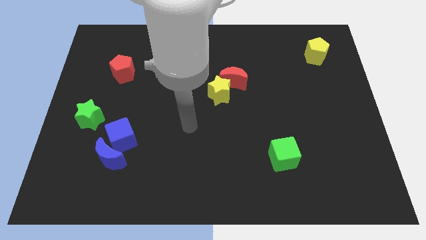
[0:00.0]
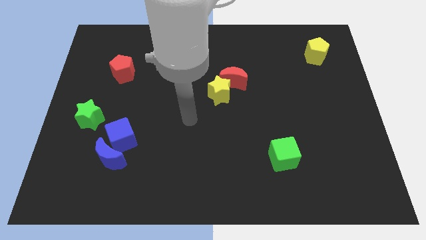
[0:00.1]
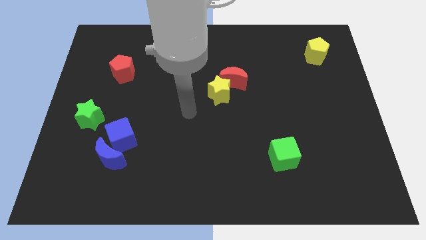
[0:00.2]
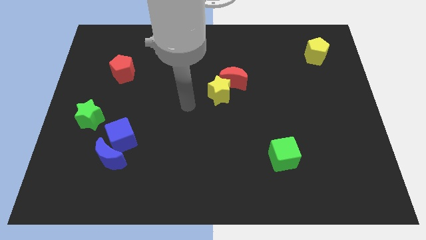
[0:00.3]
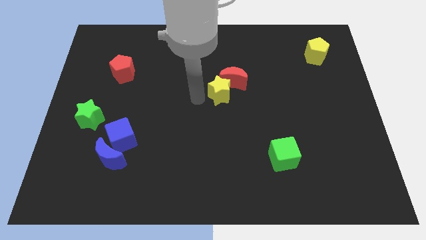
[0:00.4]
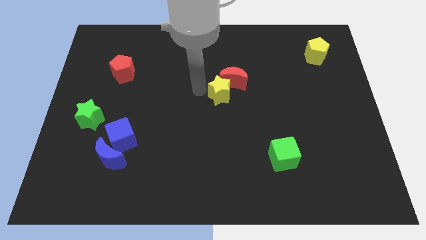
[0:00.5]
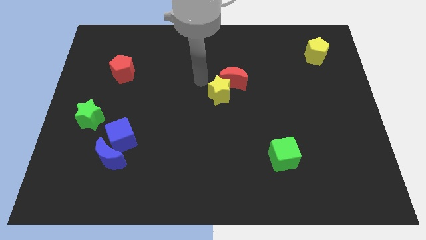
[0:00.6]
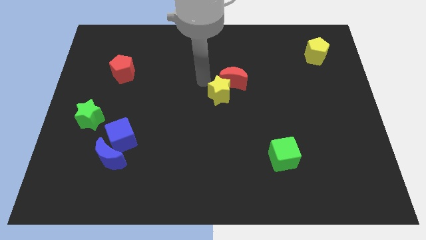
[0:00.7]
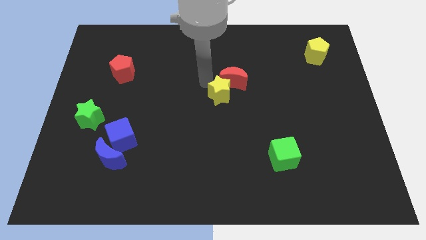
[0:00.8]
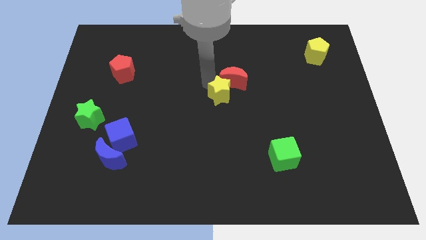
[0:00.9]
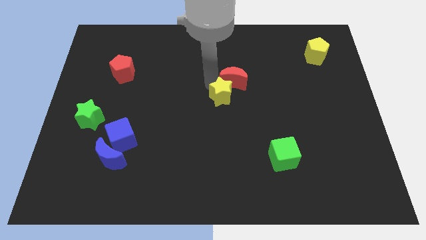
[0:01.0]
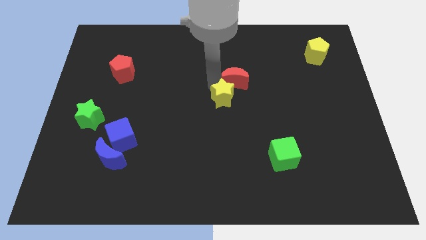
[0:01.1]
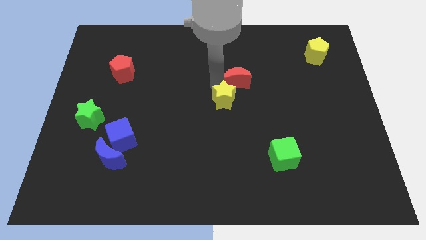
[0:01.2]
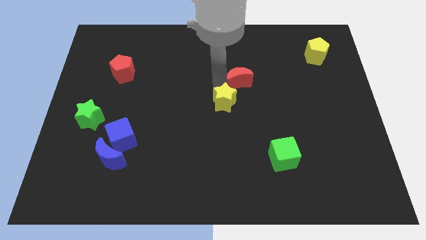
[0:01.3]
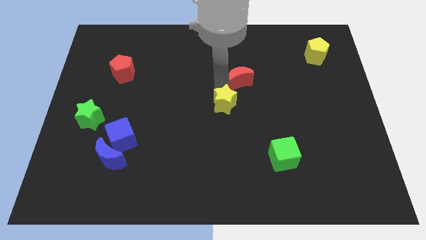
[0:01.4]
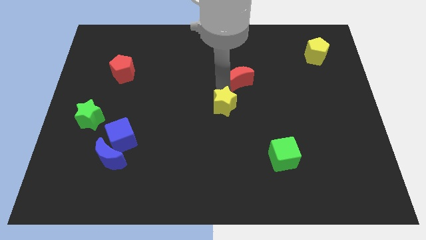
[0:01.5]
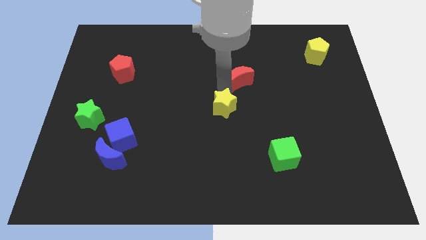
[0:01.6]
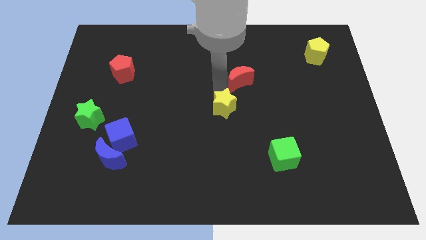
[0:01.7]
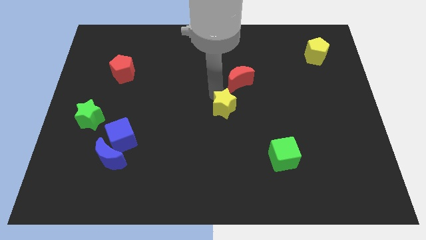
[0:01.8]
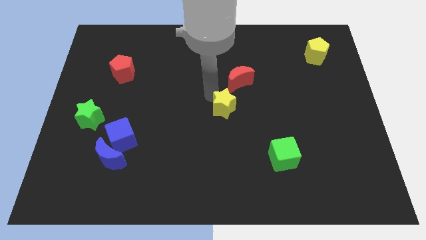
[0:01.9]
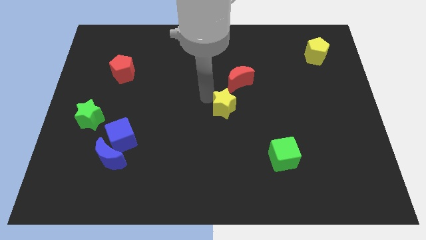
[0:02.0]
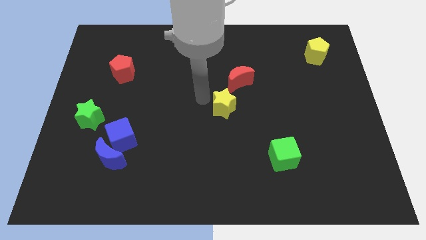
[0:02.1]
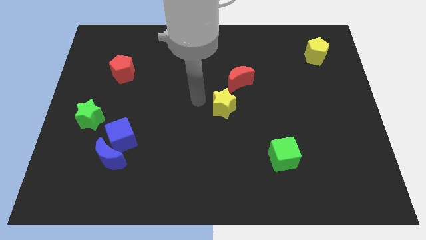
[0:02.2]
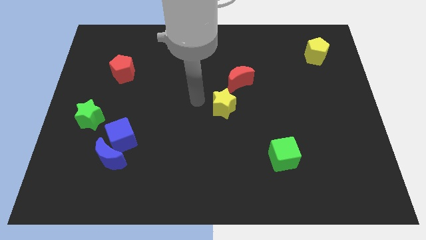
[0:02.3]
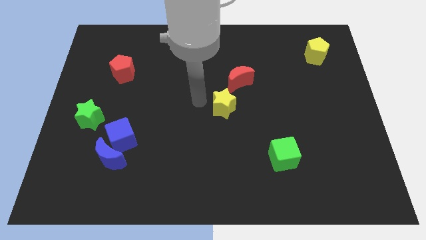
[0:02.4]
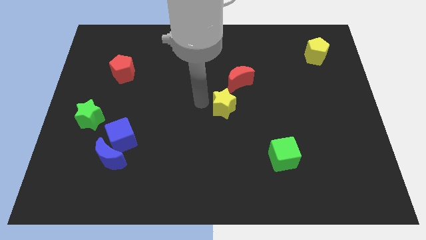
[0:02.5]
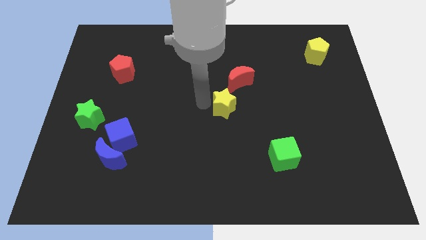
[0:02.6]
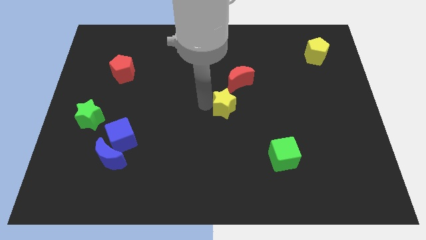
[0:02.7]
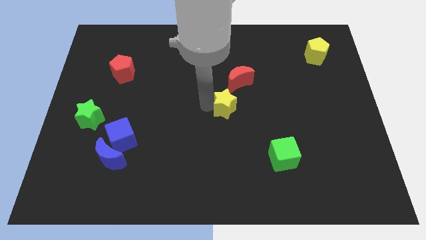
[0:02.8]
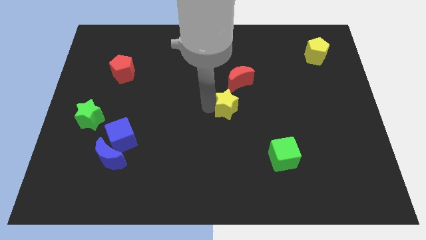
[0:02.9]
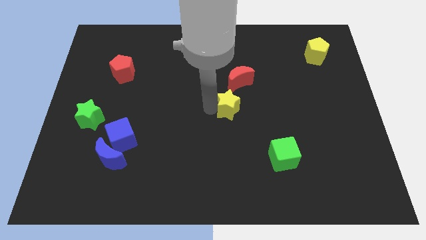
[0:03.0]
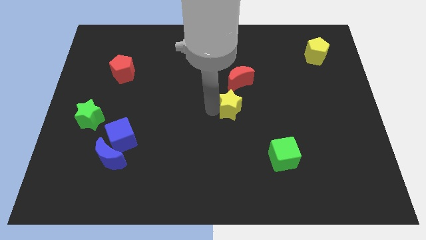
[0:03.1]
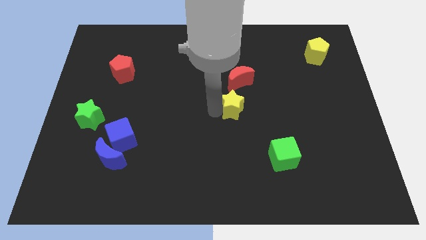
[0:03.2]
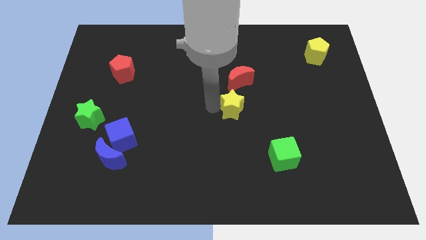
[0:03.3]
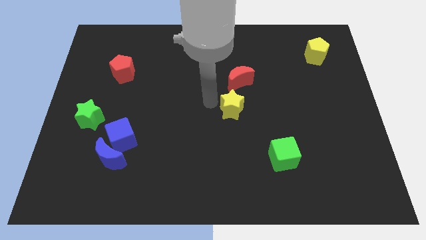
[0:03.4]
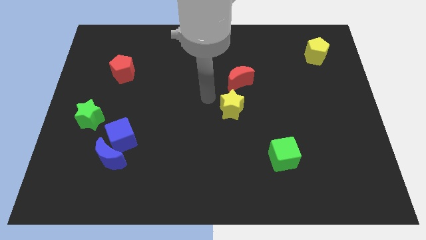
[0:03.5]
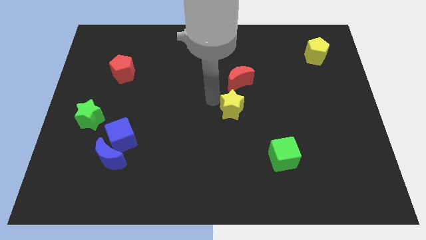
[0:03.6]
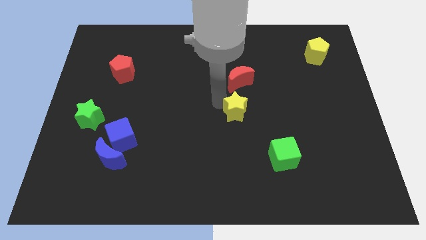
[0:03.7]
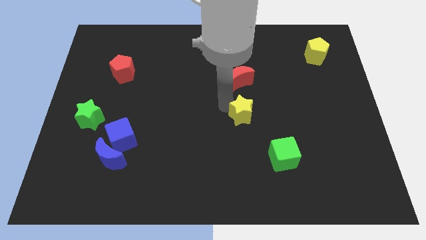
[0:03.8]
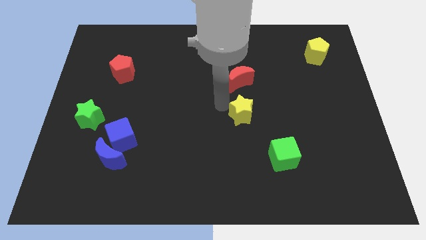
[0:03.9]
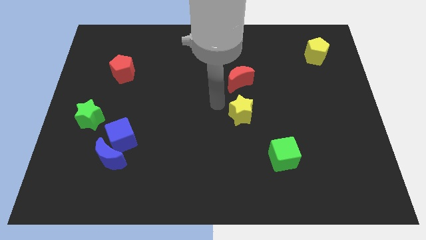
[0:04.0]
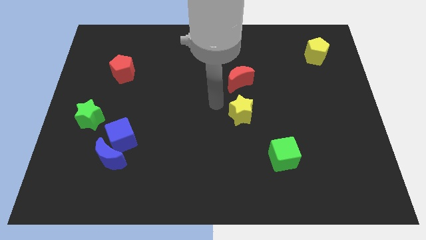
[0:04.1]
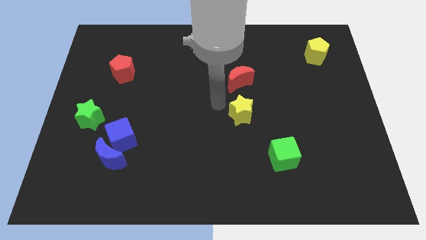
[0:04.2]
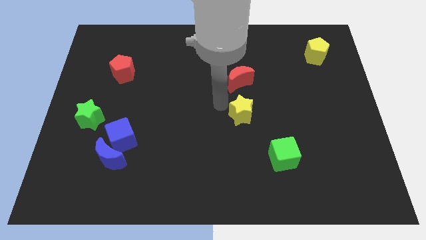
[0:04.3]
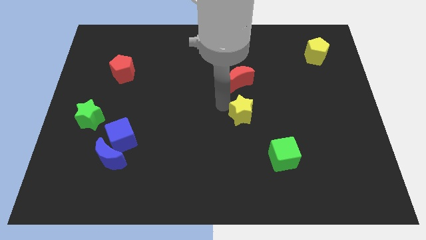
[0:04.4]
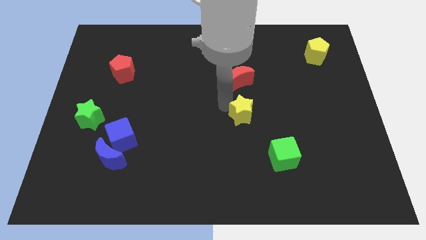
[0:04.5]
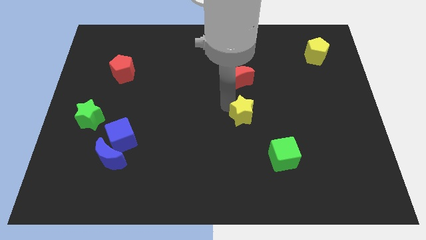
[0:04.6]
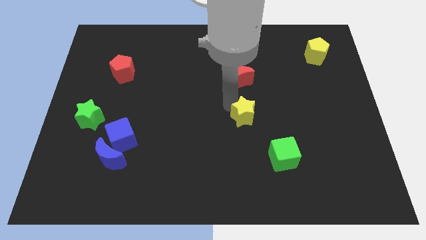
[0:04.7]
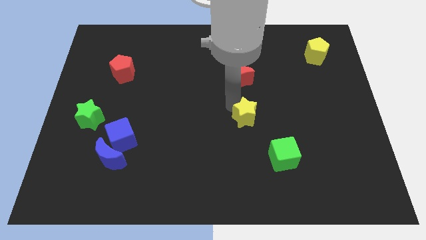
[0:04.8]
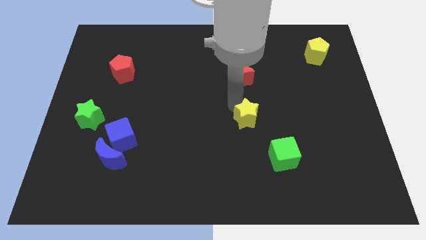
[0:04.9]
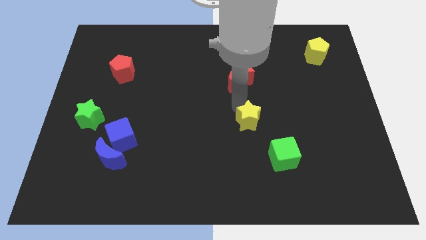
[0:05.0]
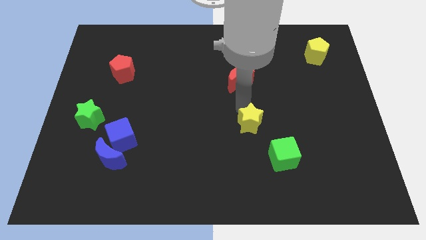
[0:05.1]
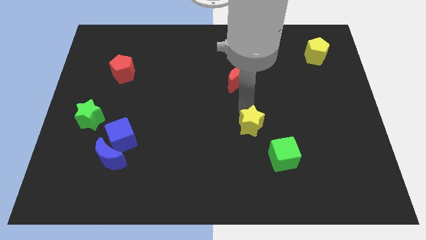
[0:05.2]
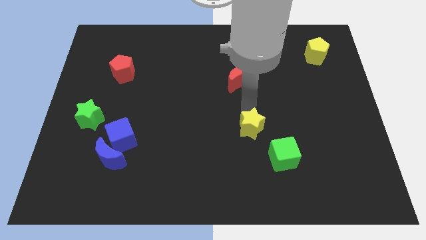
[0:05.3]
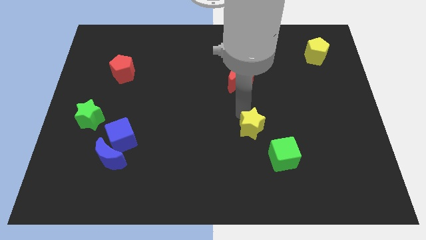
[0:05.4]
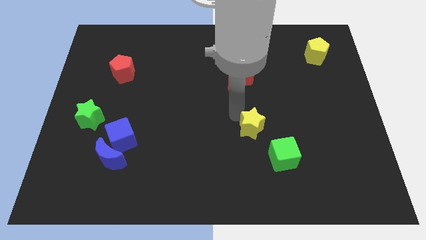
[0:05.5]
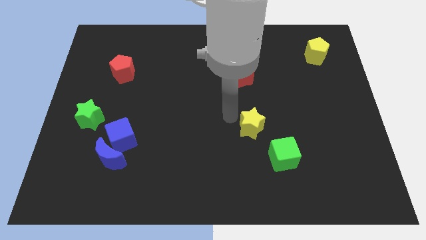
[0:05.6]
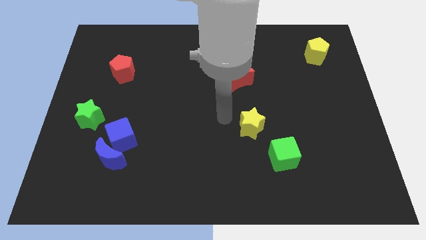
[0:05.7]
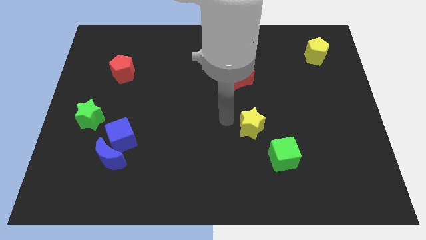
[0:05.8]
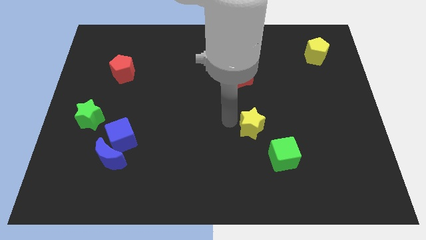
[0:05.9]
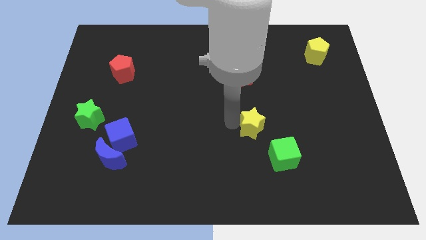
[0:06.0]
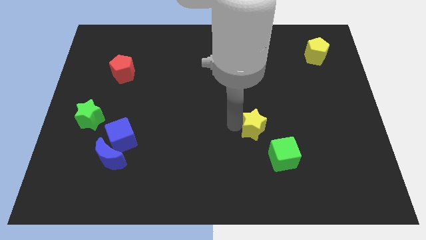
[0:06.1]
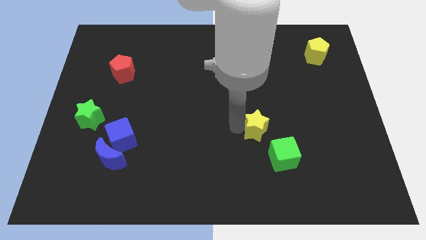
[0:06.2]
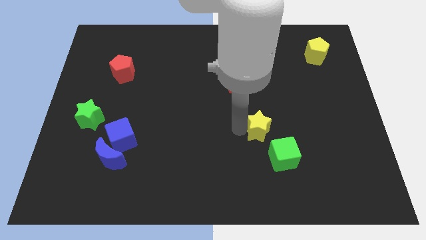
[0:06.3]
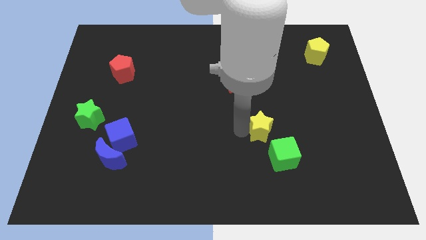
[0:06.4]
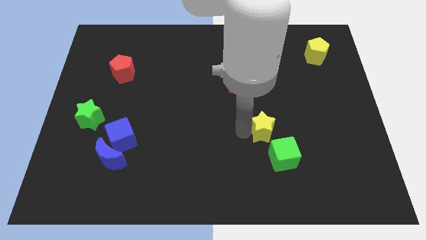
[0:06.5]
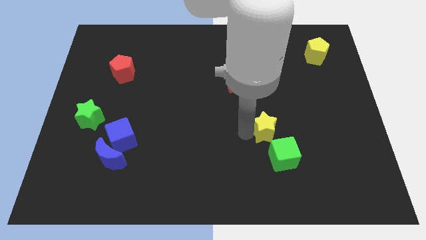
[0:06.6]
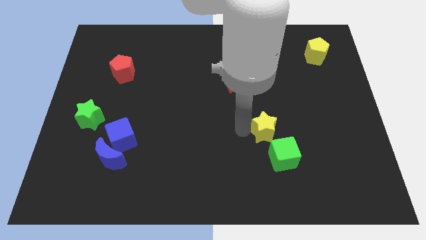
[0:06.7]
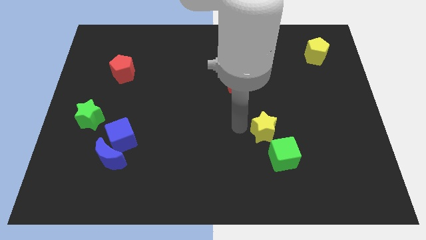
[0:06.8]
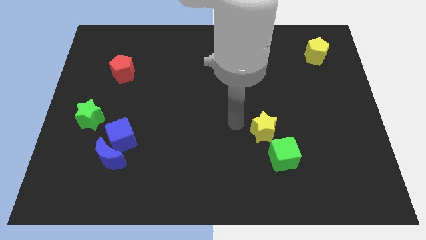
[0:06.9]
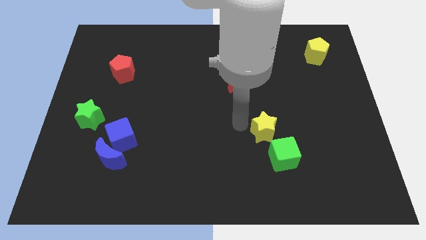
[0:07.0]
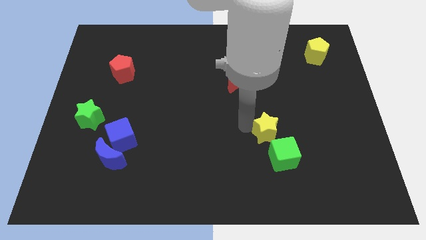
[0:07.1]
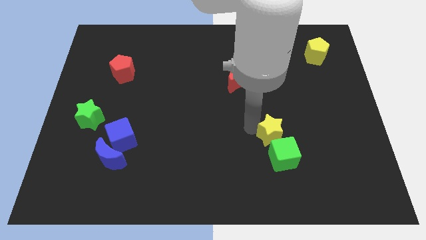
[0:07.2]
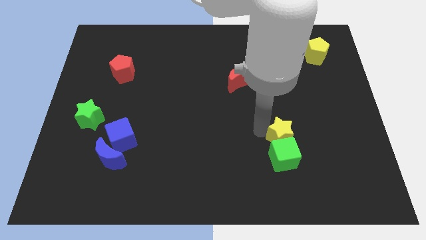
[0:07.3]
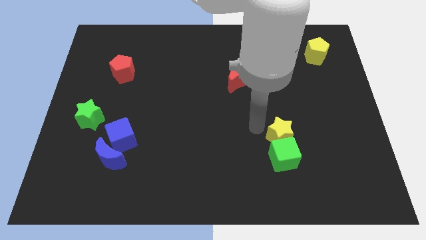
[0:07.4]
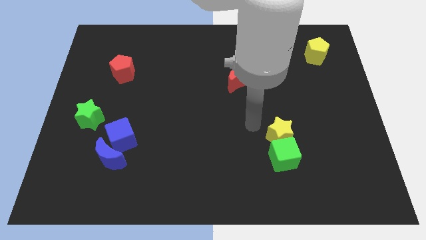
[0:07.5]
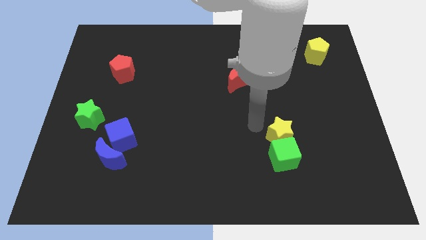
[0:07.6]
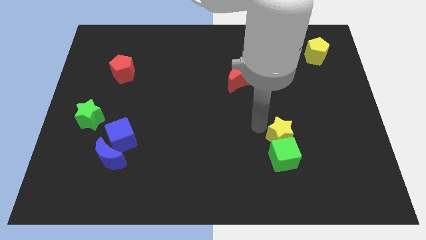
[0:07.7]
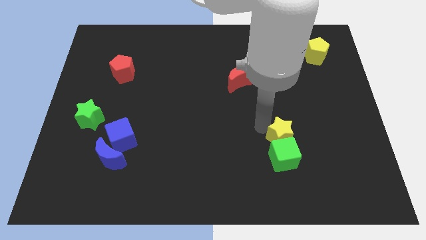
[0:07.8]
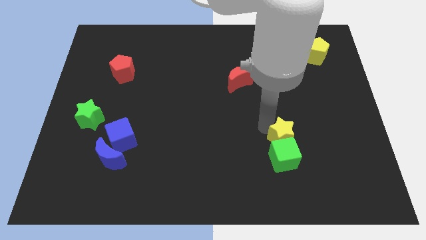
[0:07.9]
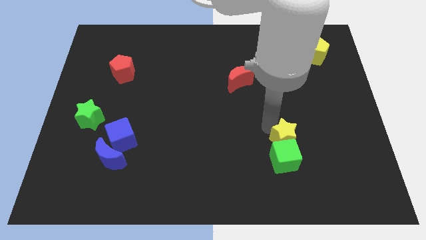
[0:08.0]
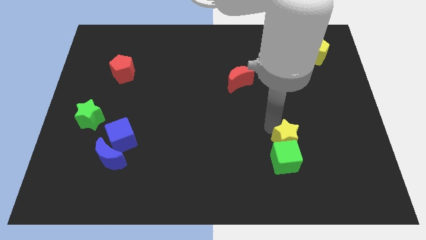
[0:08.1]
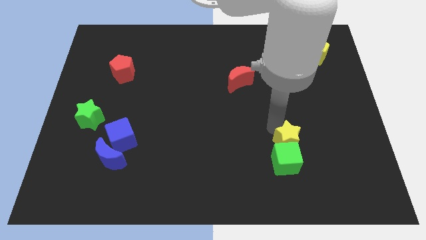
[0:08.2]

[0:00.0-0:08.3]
move the yellow star diagonally downwards and to the right
